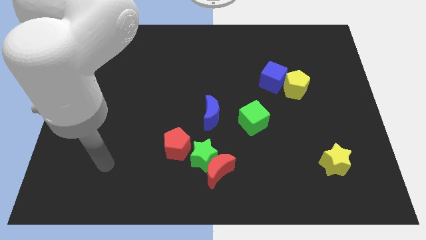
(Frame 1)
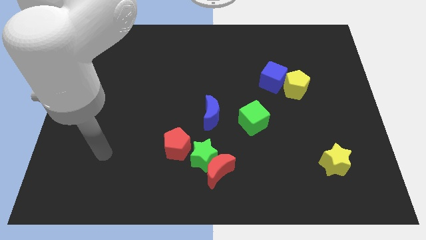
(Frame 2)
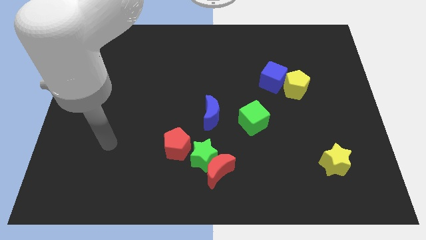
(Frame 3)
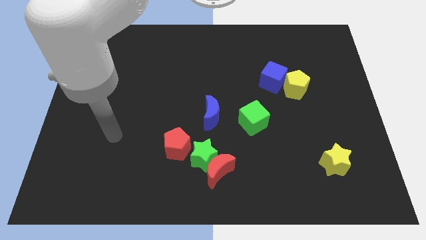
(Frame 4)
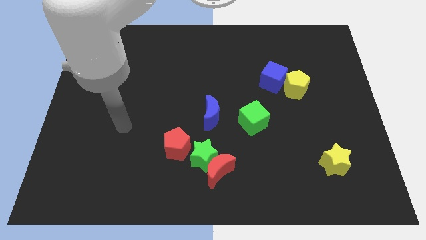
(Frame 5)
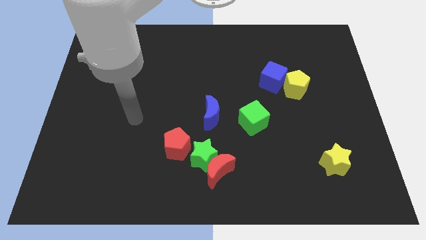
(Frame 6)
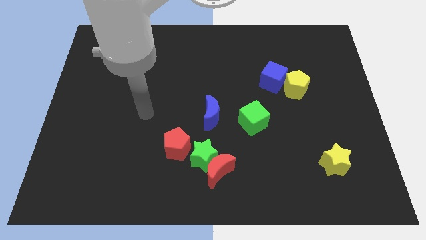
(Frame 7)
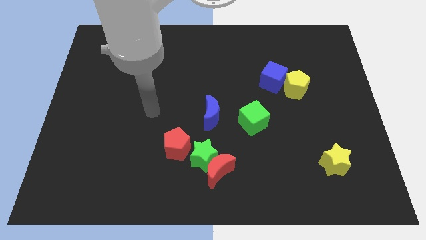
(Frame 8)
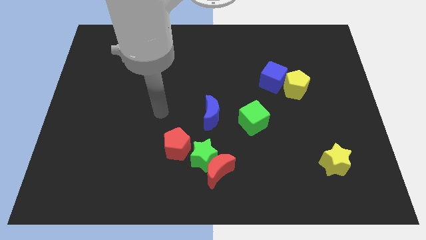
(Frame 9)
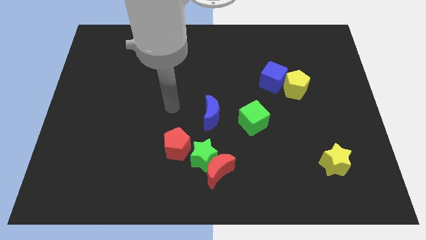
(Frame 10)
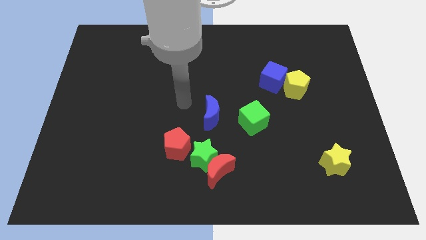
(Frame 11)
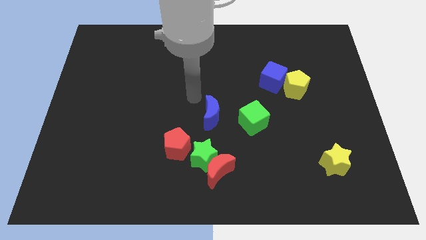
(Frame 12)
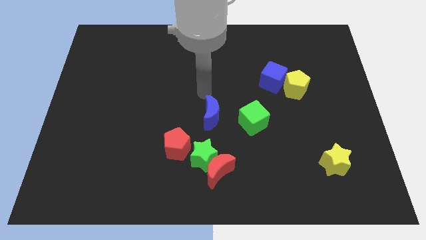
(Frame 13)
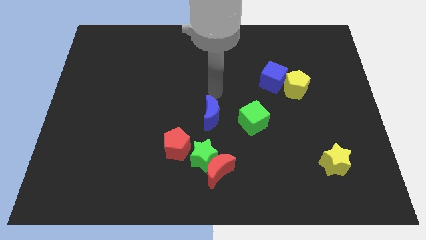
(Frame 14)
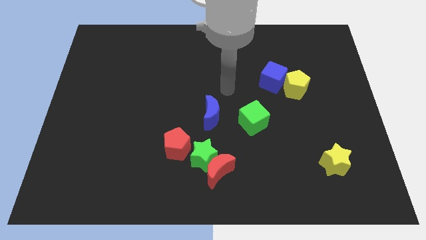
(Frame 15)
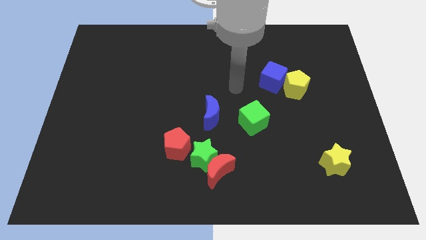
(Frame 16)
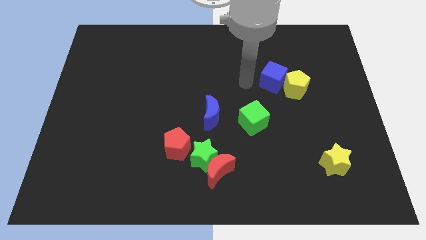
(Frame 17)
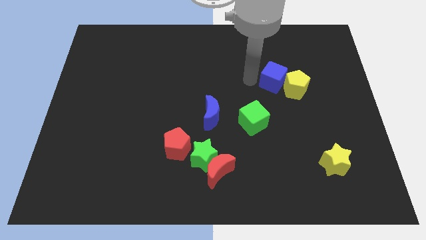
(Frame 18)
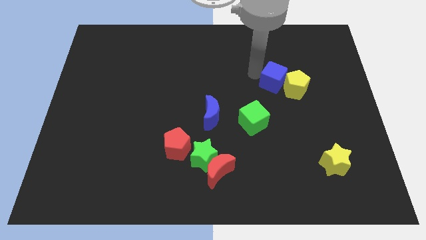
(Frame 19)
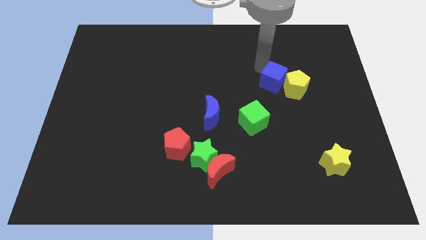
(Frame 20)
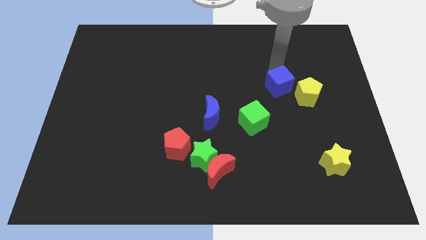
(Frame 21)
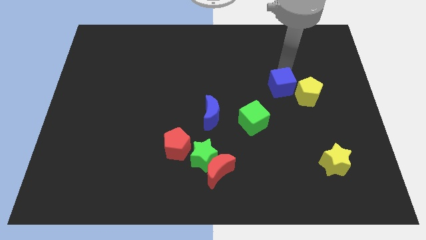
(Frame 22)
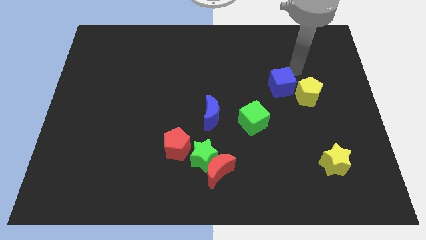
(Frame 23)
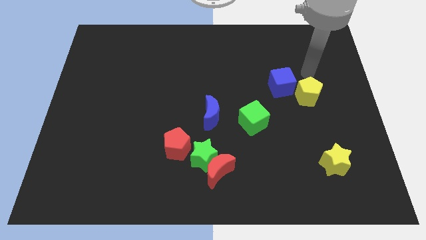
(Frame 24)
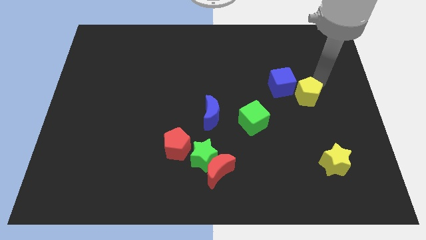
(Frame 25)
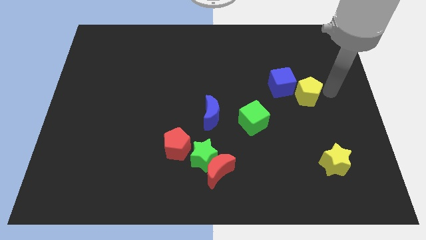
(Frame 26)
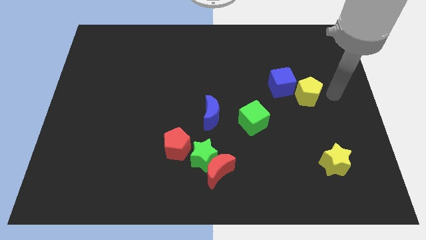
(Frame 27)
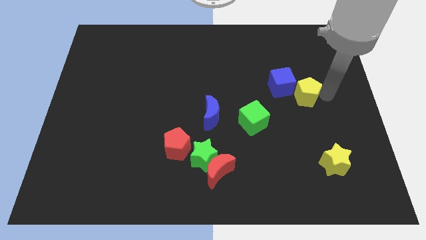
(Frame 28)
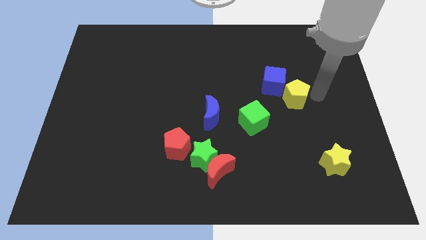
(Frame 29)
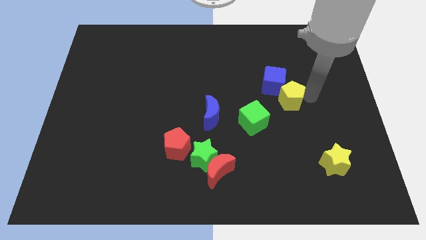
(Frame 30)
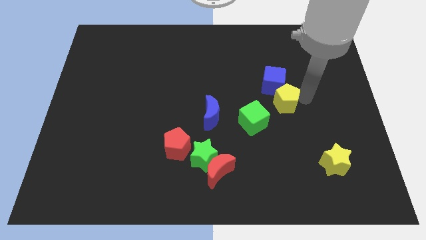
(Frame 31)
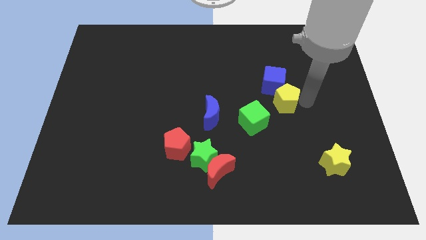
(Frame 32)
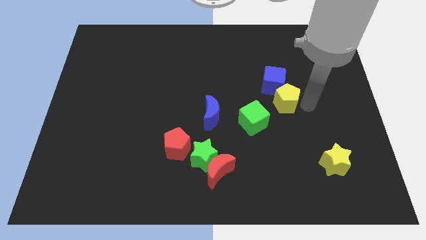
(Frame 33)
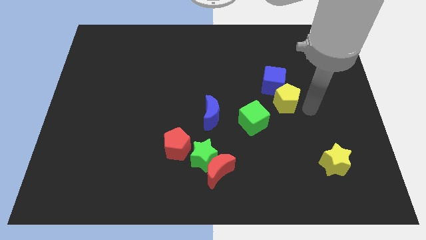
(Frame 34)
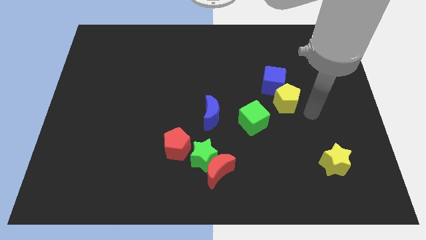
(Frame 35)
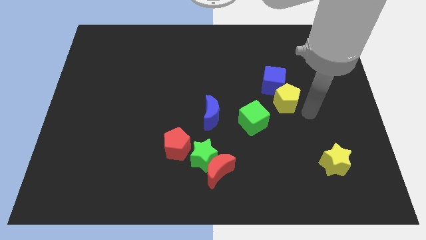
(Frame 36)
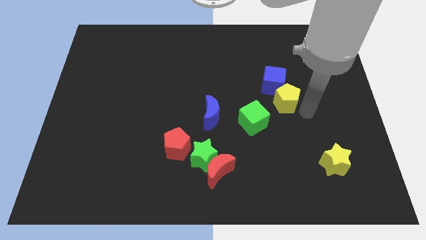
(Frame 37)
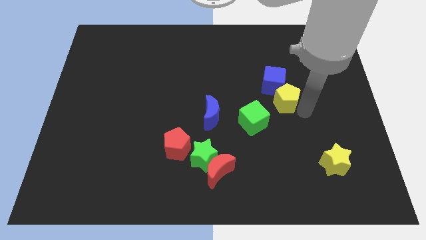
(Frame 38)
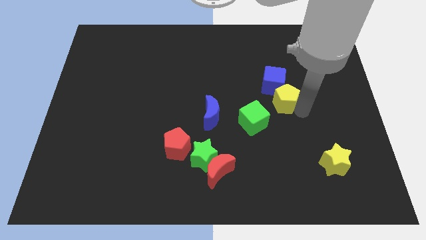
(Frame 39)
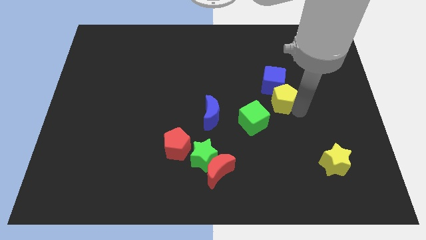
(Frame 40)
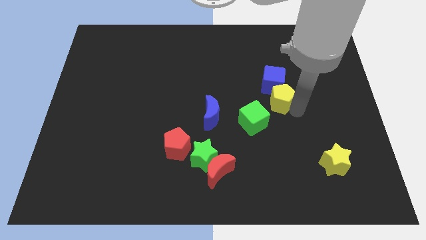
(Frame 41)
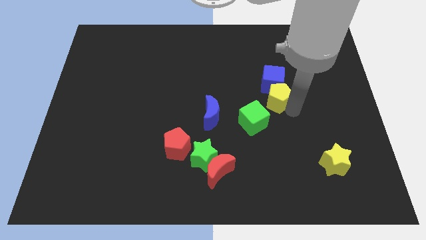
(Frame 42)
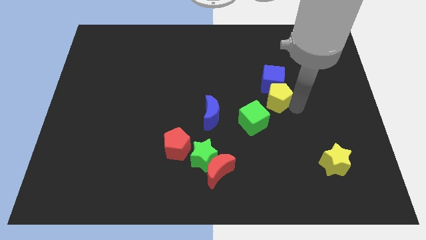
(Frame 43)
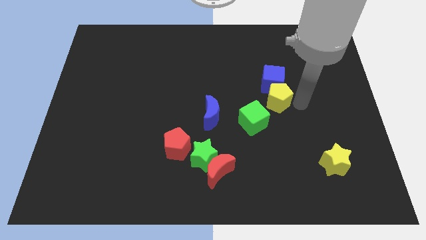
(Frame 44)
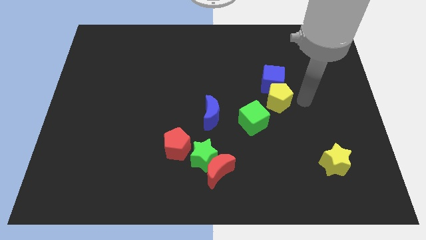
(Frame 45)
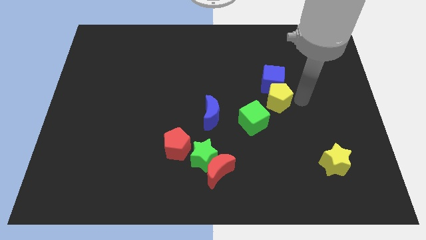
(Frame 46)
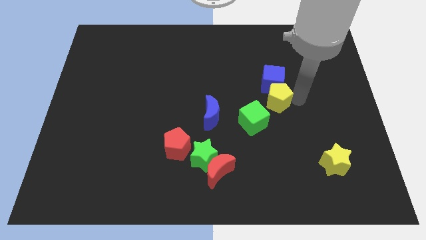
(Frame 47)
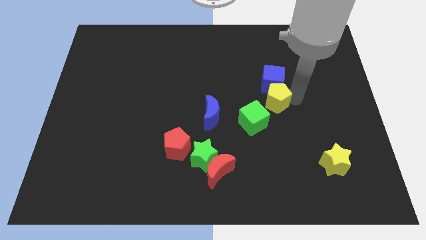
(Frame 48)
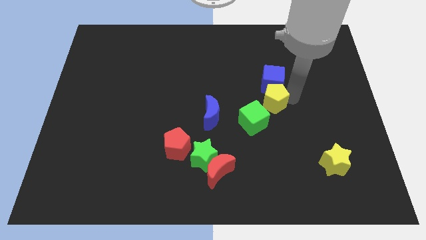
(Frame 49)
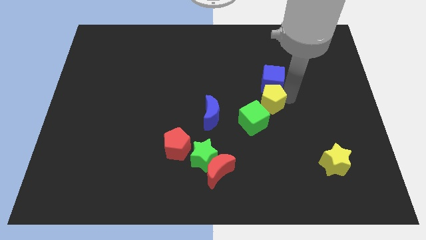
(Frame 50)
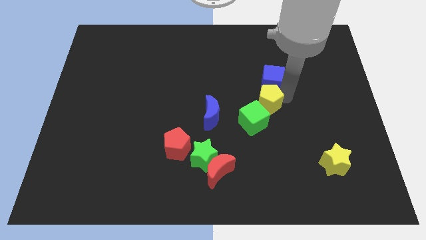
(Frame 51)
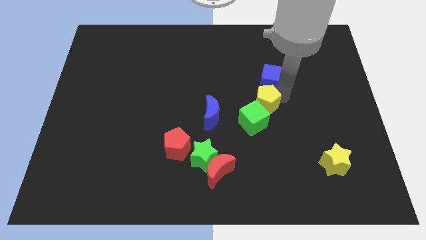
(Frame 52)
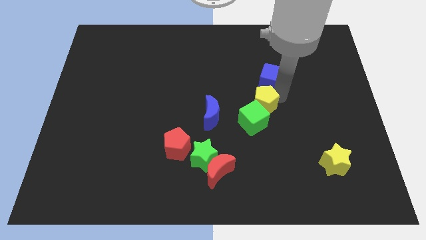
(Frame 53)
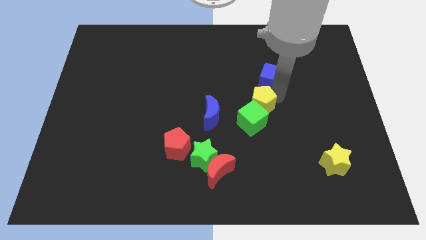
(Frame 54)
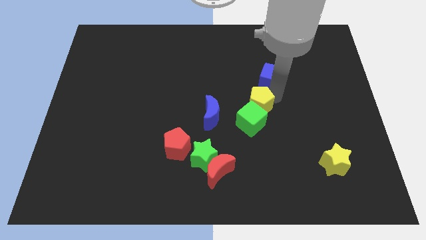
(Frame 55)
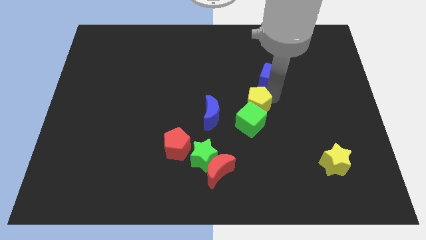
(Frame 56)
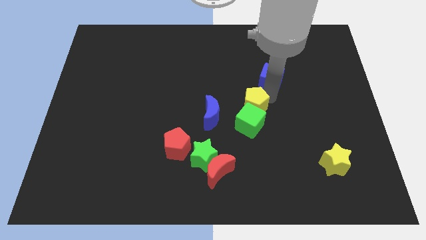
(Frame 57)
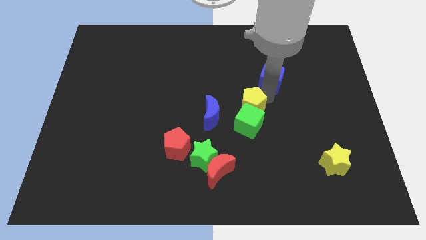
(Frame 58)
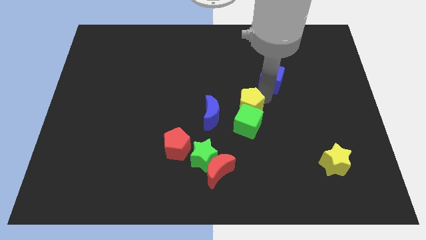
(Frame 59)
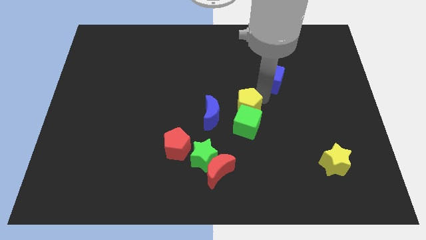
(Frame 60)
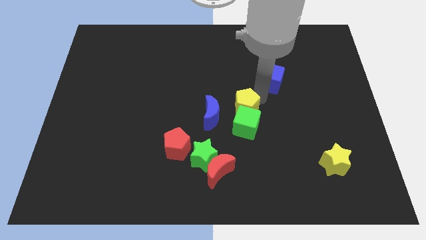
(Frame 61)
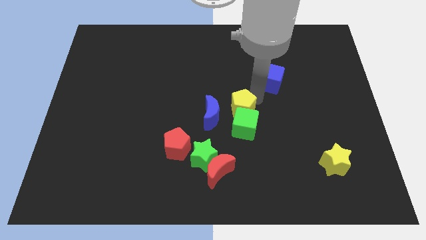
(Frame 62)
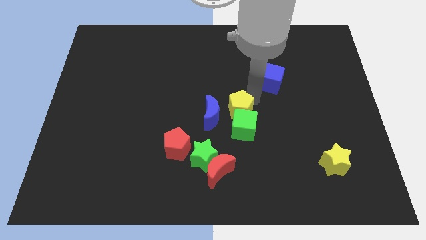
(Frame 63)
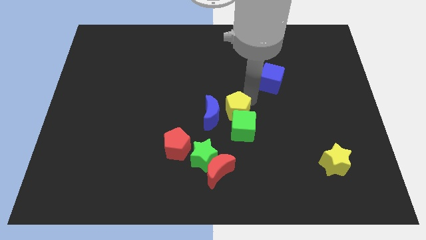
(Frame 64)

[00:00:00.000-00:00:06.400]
move the yellow pentagon next to the blue moon

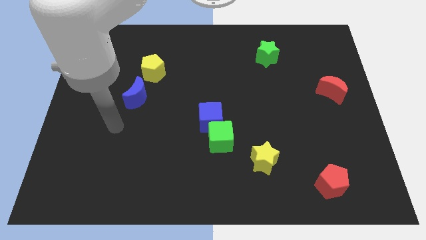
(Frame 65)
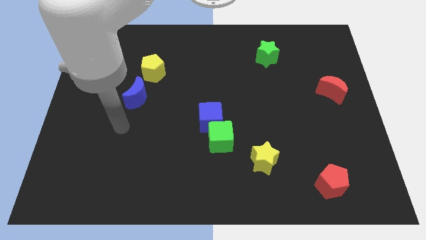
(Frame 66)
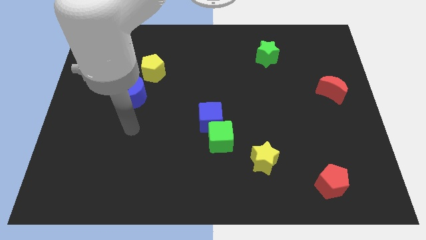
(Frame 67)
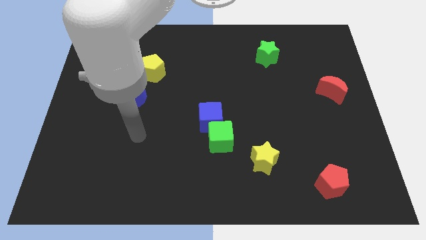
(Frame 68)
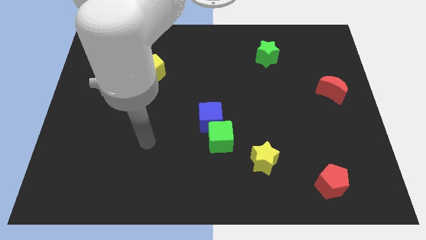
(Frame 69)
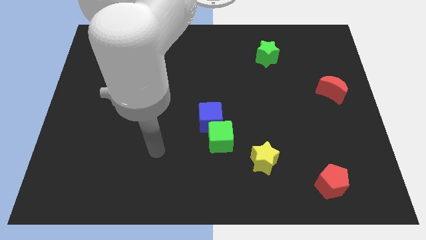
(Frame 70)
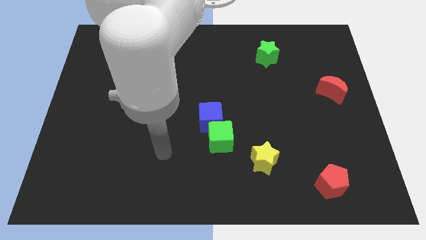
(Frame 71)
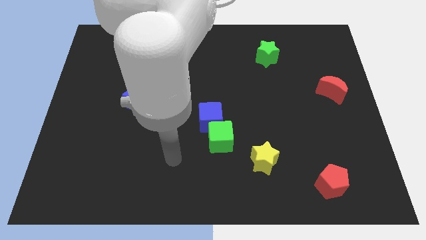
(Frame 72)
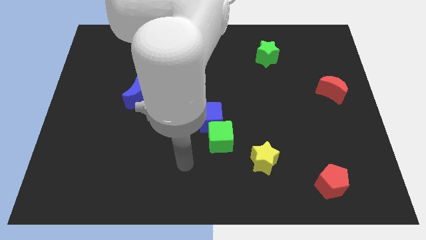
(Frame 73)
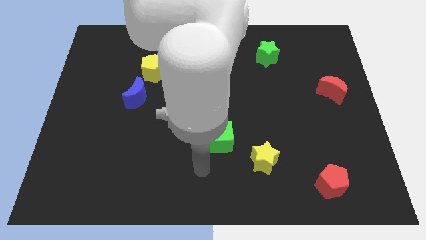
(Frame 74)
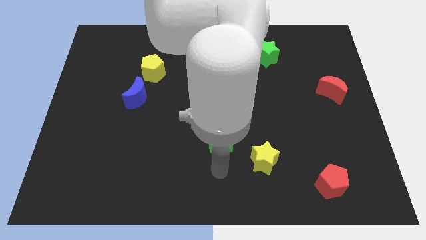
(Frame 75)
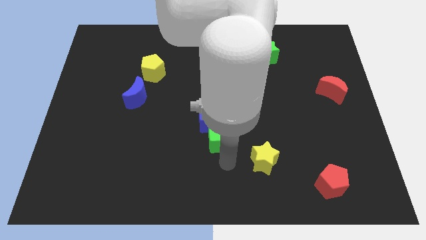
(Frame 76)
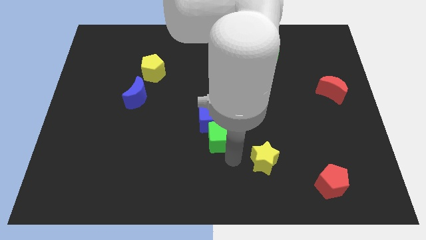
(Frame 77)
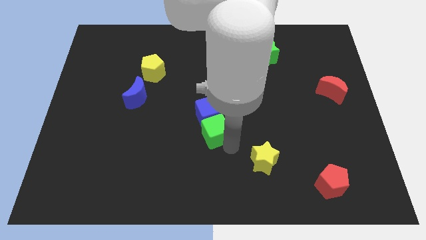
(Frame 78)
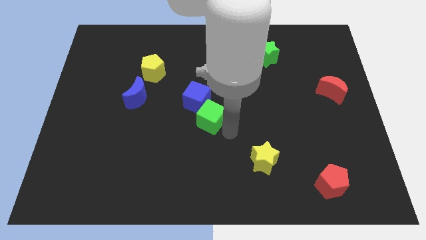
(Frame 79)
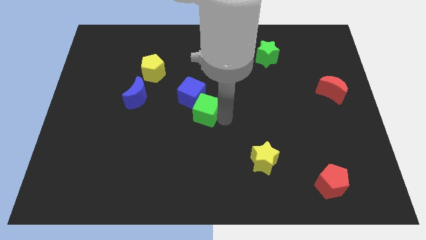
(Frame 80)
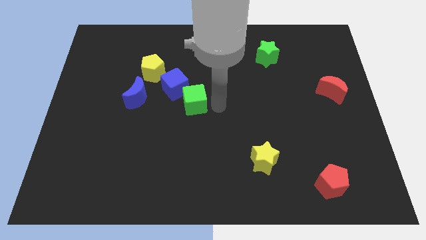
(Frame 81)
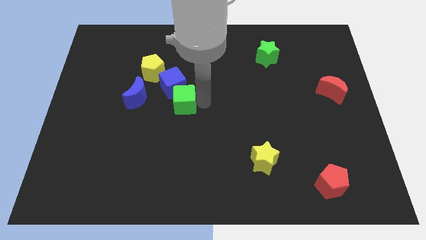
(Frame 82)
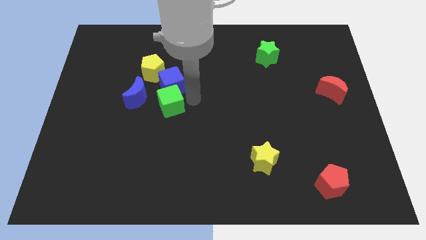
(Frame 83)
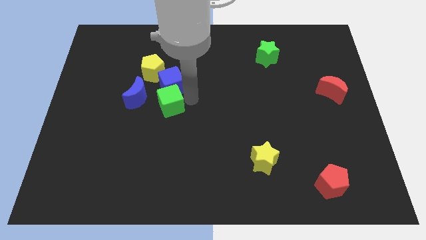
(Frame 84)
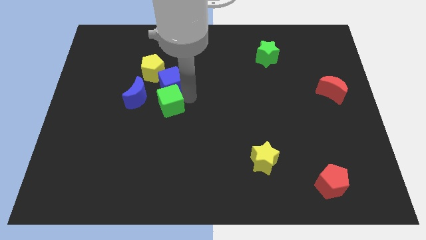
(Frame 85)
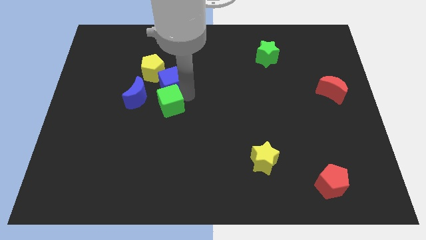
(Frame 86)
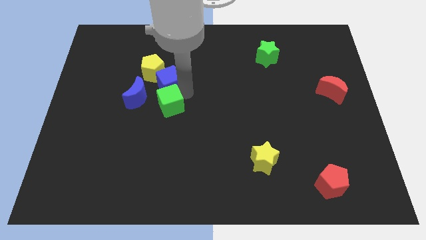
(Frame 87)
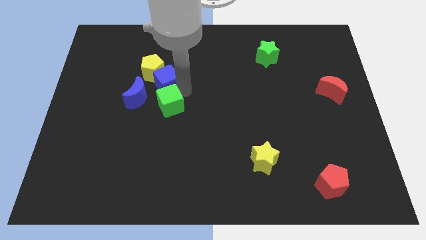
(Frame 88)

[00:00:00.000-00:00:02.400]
move the blue cube close to the yellow pentagon
